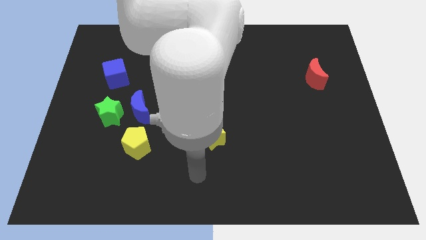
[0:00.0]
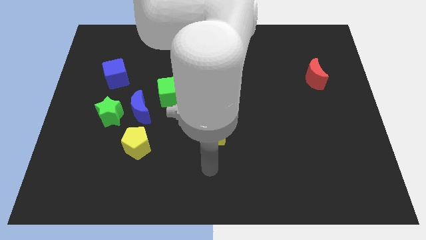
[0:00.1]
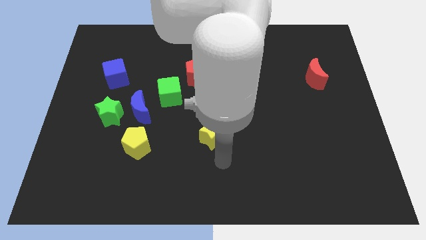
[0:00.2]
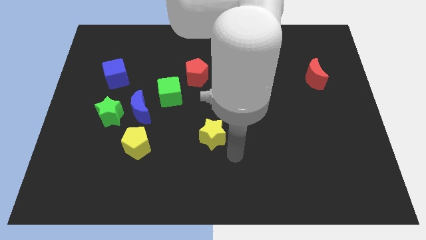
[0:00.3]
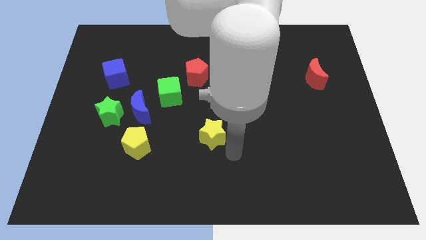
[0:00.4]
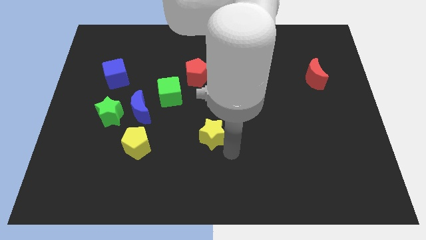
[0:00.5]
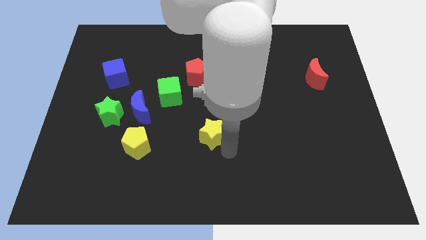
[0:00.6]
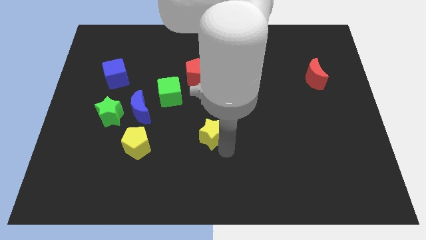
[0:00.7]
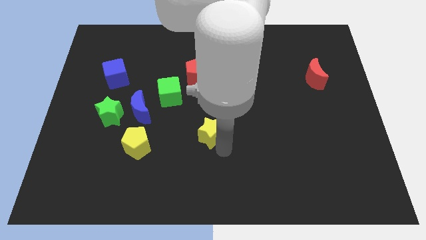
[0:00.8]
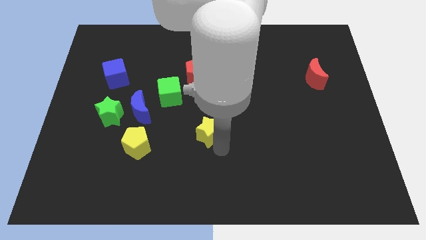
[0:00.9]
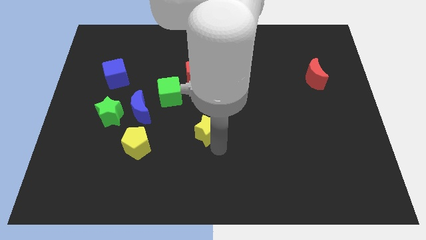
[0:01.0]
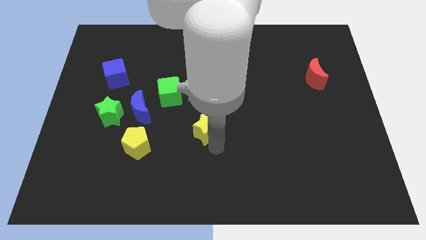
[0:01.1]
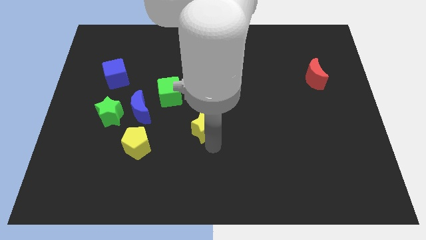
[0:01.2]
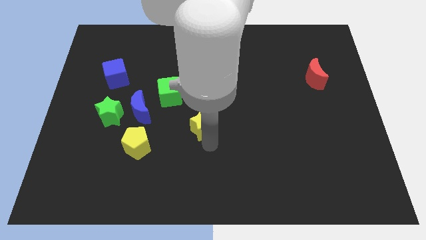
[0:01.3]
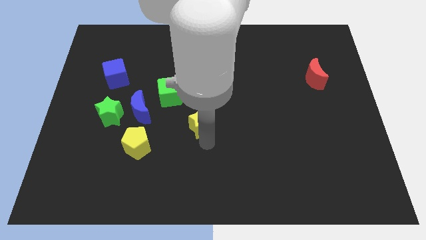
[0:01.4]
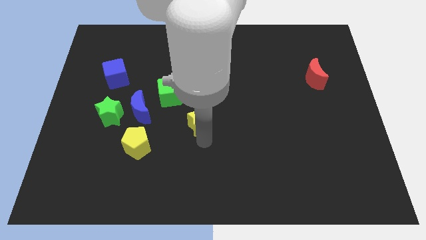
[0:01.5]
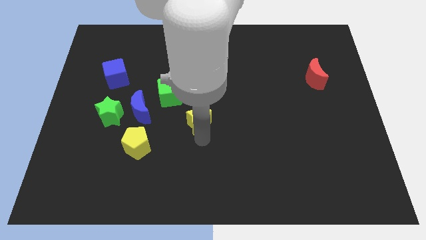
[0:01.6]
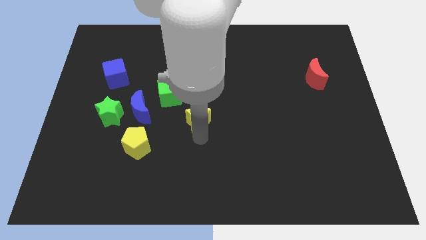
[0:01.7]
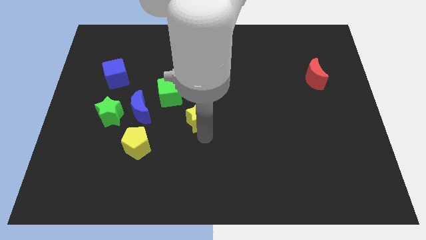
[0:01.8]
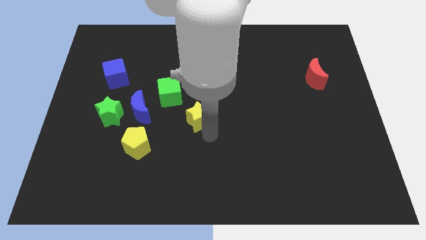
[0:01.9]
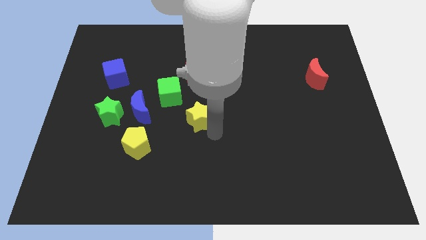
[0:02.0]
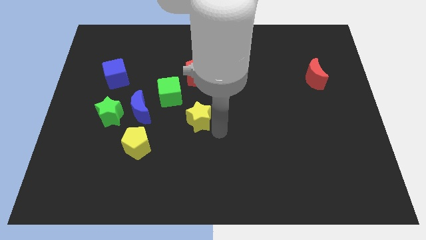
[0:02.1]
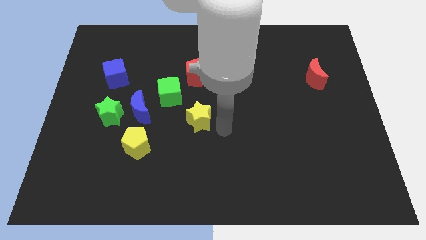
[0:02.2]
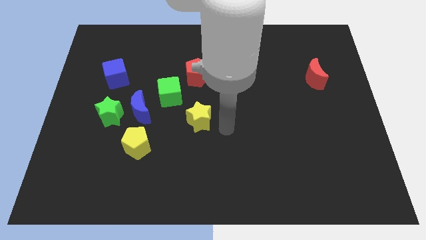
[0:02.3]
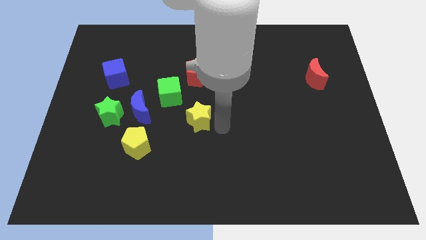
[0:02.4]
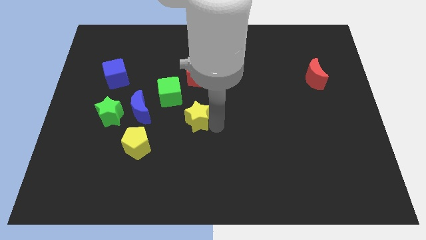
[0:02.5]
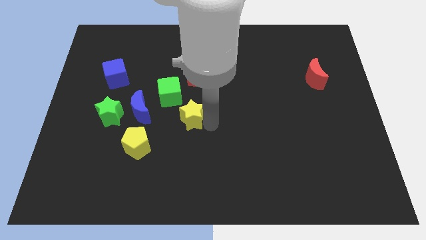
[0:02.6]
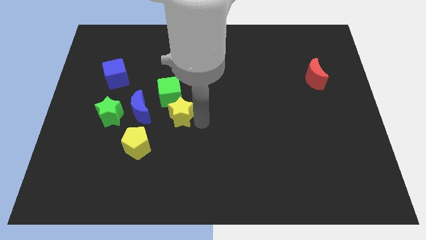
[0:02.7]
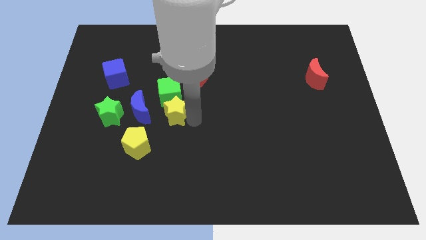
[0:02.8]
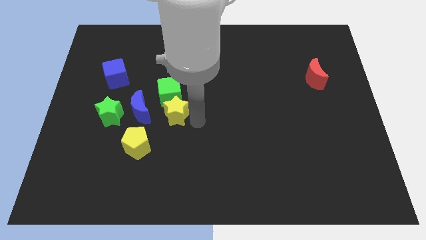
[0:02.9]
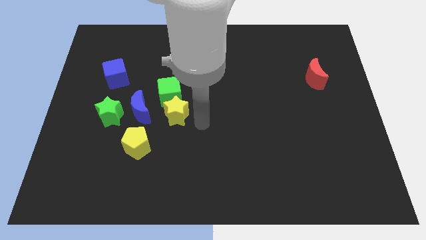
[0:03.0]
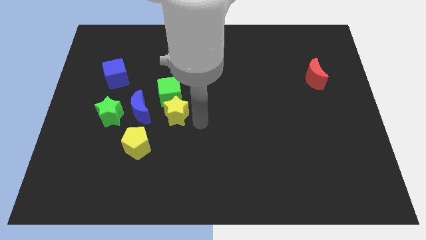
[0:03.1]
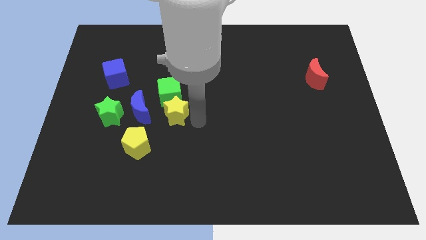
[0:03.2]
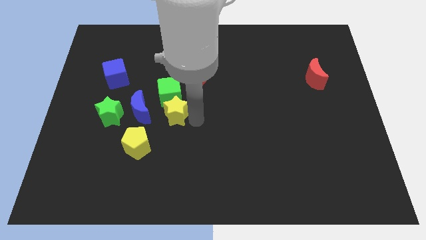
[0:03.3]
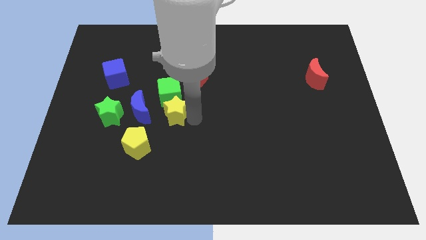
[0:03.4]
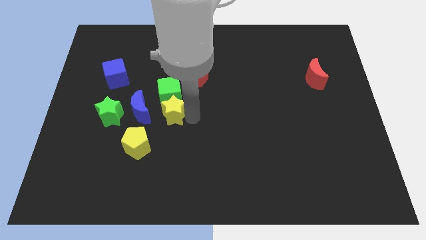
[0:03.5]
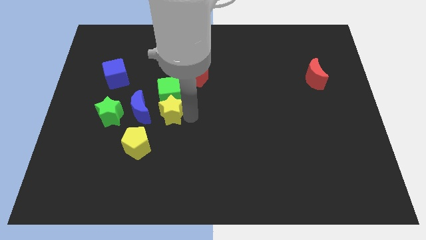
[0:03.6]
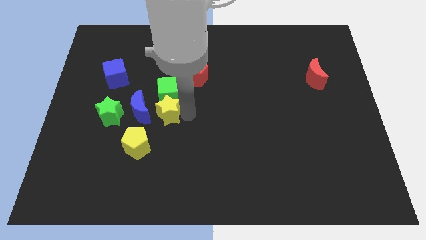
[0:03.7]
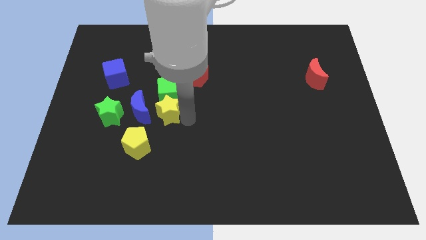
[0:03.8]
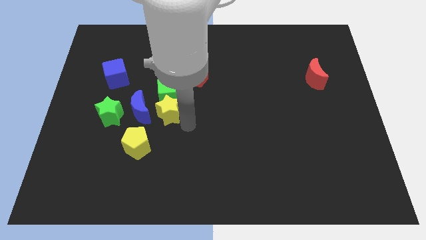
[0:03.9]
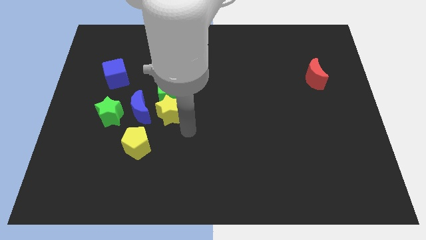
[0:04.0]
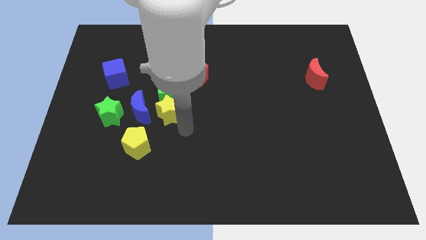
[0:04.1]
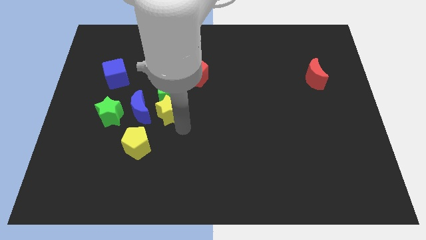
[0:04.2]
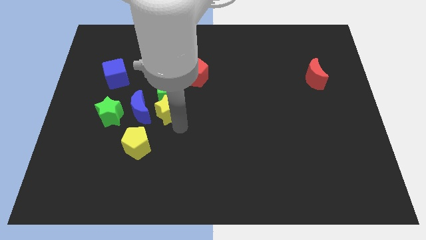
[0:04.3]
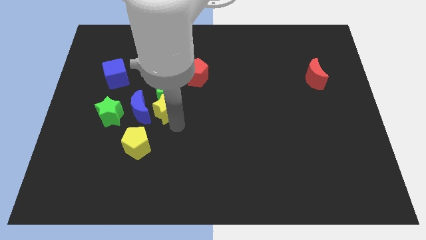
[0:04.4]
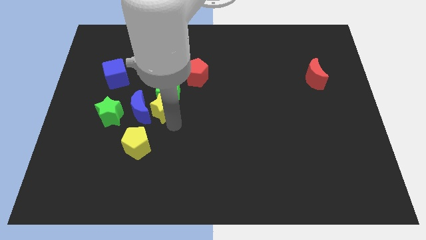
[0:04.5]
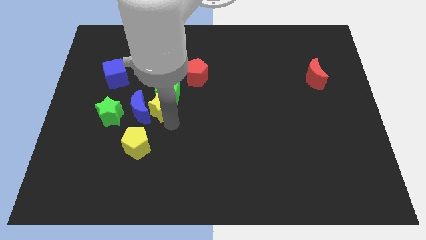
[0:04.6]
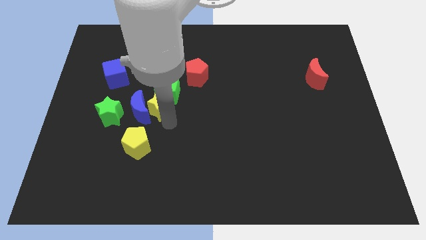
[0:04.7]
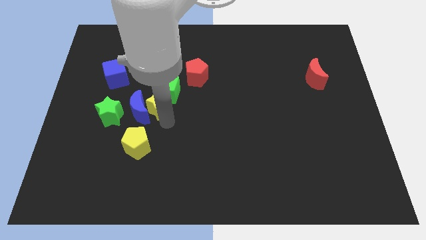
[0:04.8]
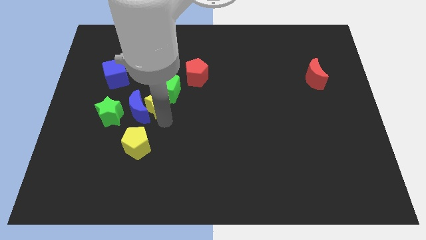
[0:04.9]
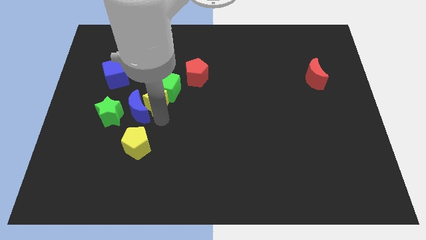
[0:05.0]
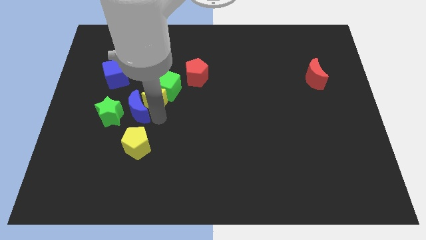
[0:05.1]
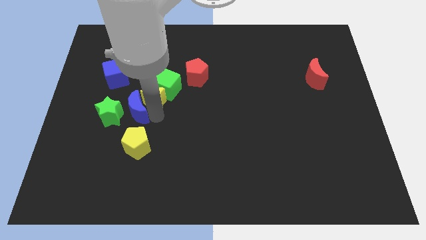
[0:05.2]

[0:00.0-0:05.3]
put the yellow star to the bottom right of the blue cube

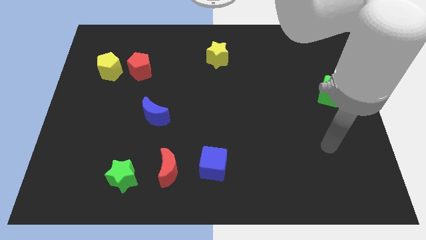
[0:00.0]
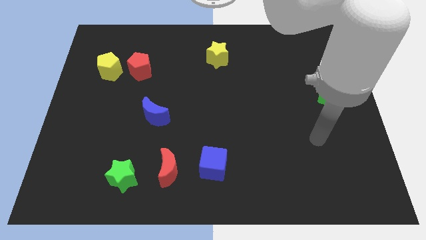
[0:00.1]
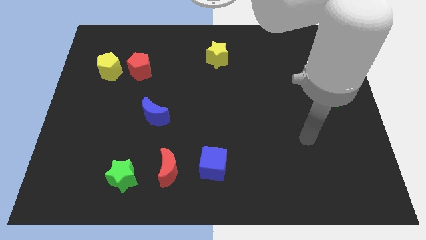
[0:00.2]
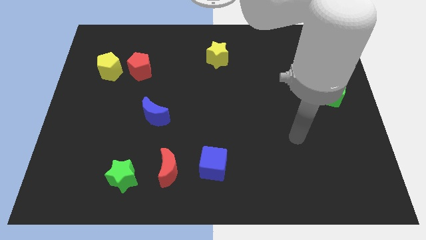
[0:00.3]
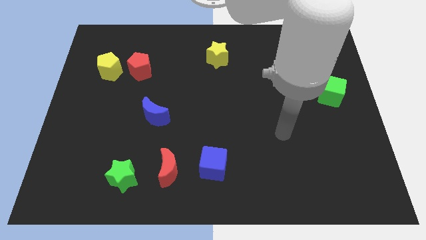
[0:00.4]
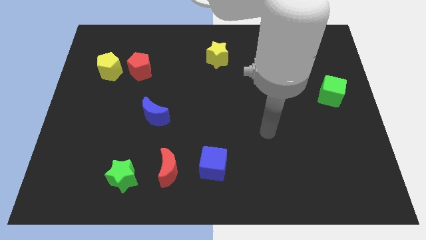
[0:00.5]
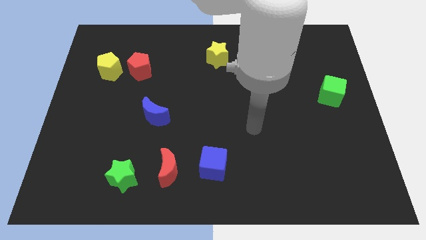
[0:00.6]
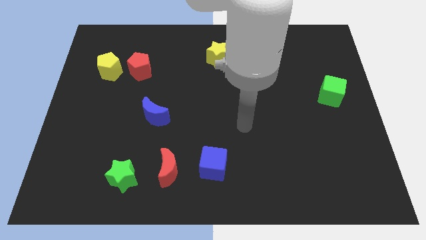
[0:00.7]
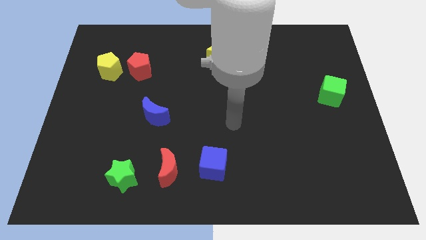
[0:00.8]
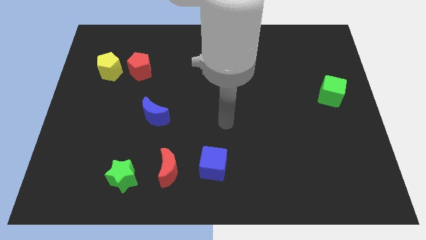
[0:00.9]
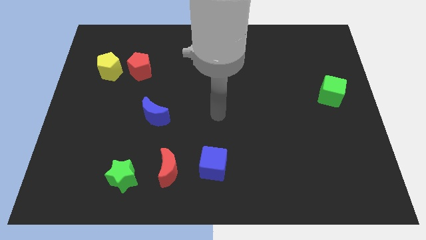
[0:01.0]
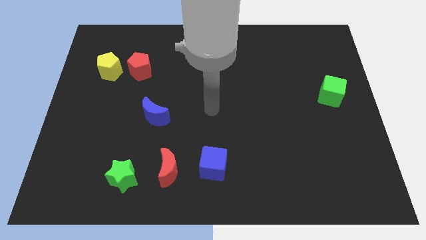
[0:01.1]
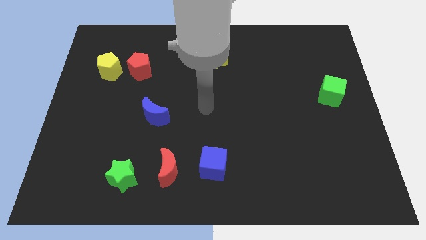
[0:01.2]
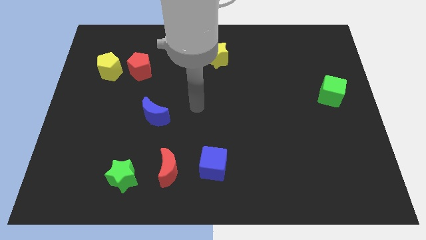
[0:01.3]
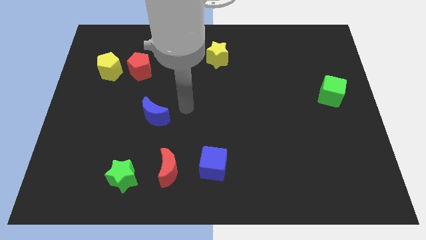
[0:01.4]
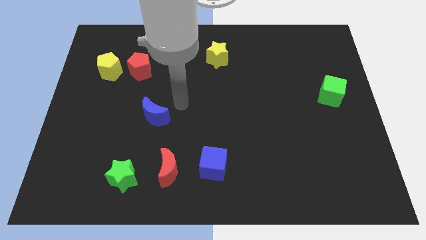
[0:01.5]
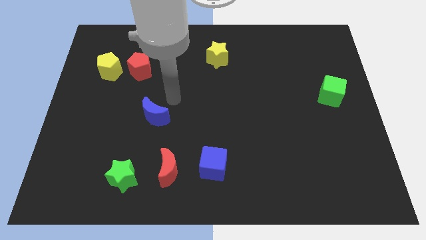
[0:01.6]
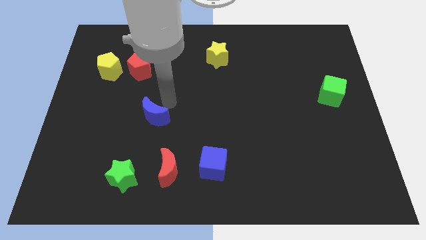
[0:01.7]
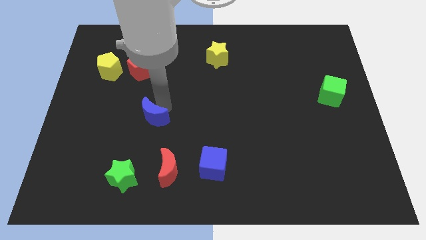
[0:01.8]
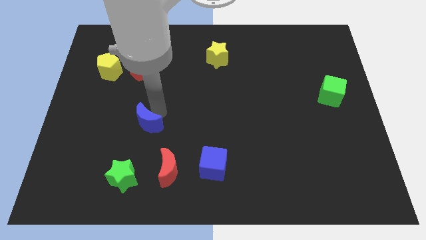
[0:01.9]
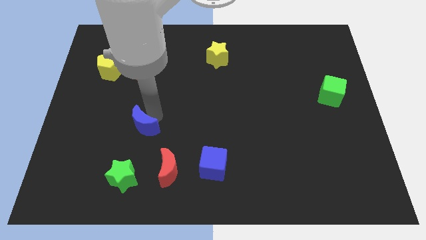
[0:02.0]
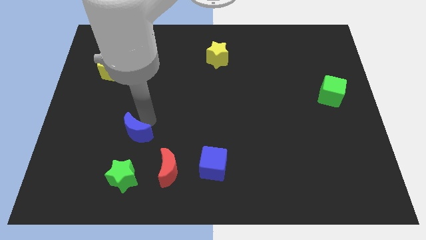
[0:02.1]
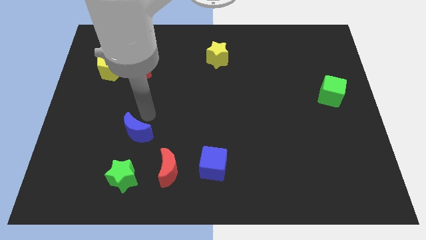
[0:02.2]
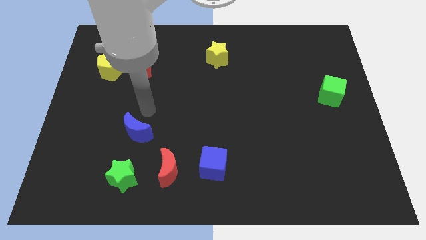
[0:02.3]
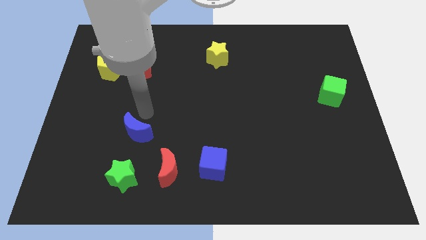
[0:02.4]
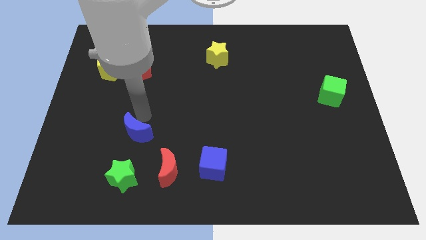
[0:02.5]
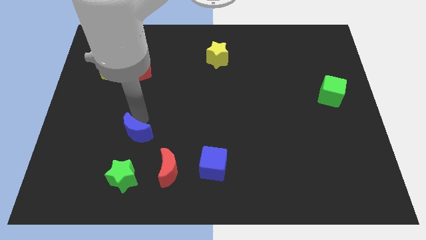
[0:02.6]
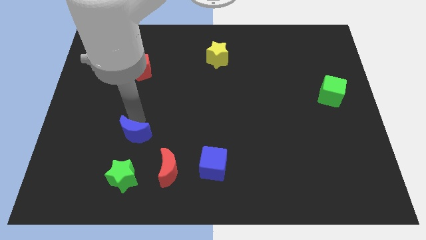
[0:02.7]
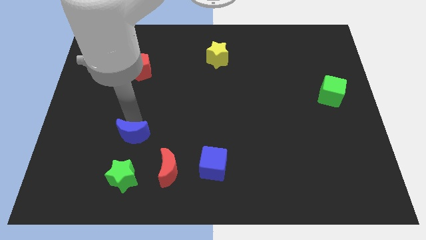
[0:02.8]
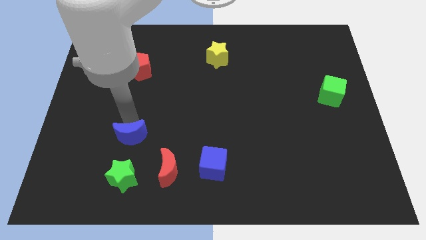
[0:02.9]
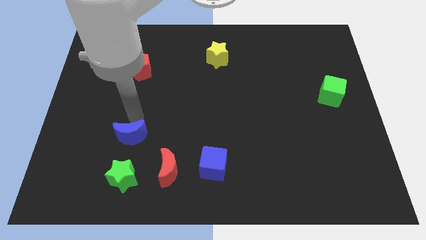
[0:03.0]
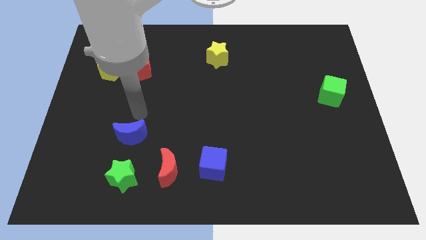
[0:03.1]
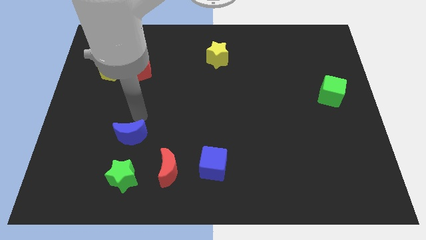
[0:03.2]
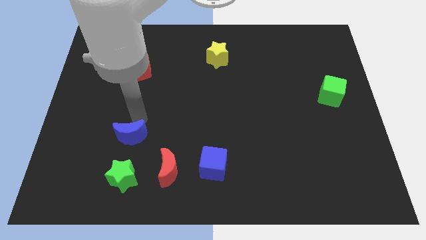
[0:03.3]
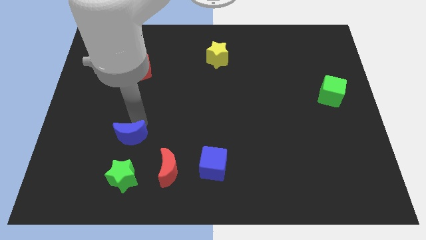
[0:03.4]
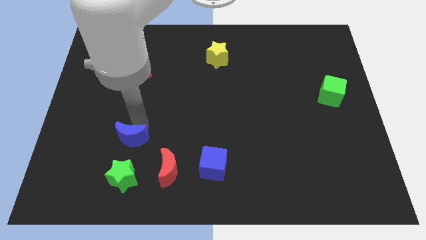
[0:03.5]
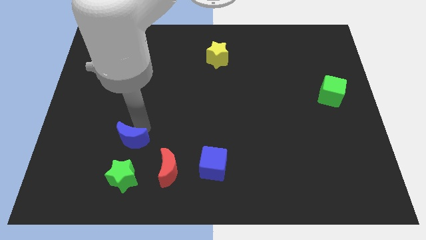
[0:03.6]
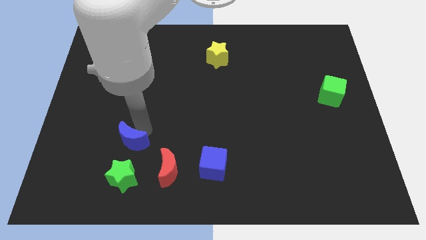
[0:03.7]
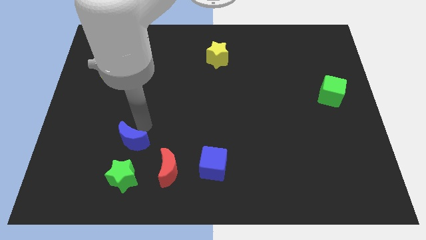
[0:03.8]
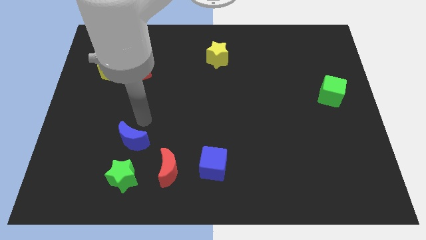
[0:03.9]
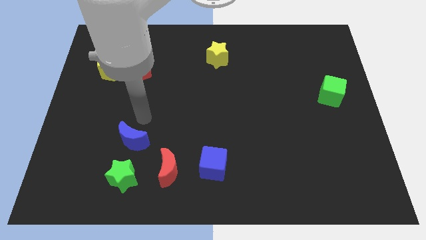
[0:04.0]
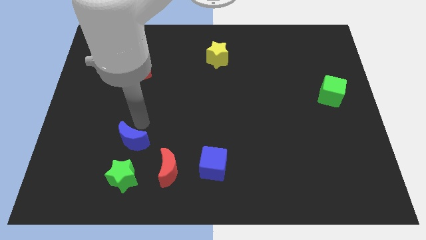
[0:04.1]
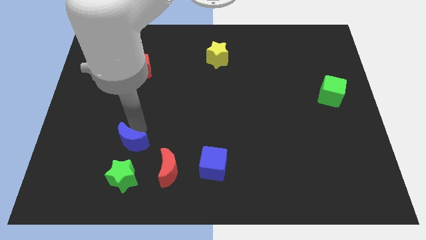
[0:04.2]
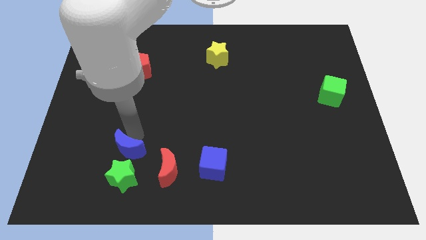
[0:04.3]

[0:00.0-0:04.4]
put the blue moon to the left of the red moon
